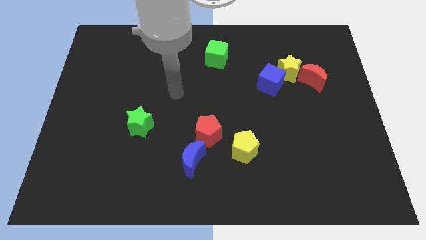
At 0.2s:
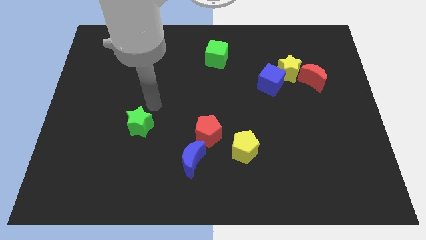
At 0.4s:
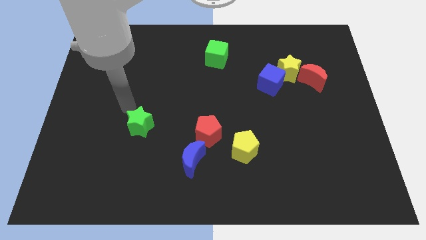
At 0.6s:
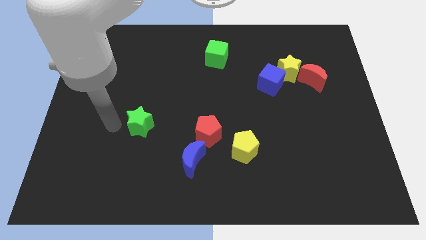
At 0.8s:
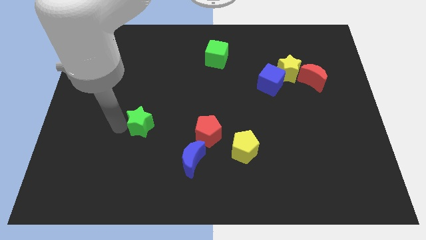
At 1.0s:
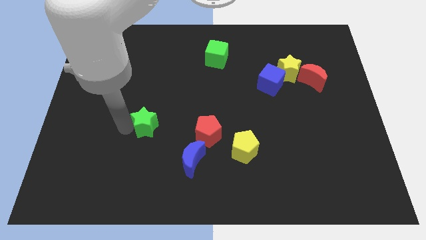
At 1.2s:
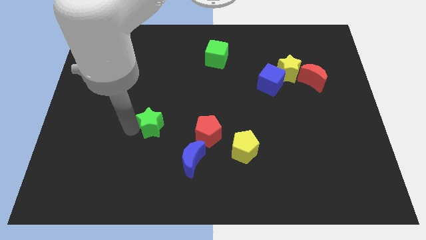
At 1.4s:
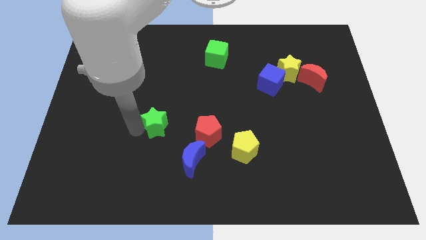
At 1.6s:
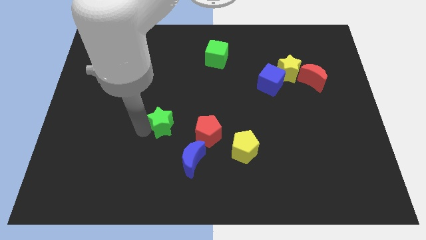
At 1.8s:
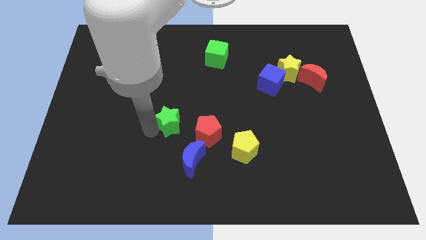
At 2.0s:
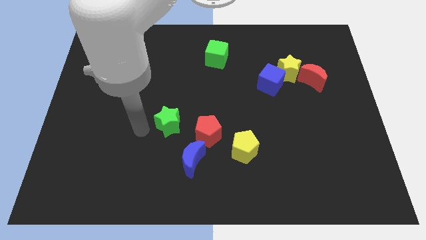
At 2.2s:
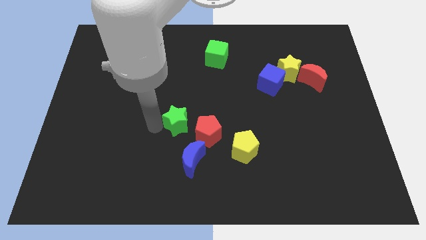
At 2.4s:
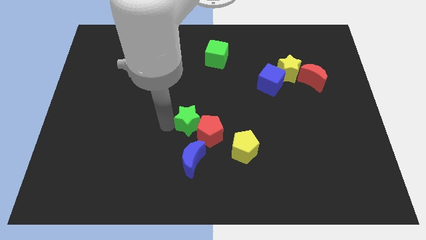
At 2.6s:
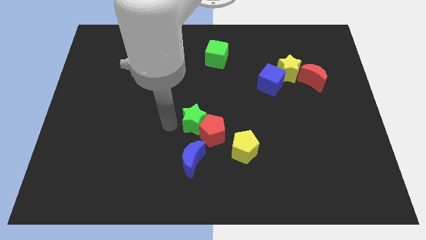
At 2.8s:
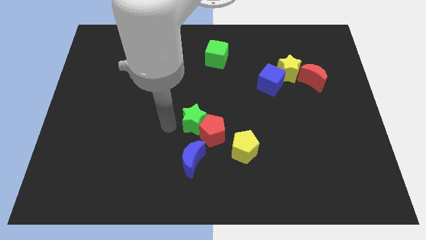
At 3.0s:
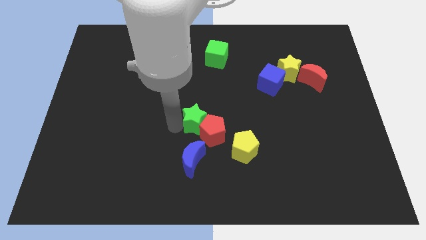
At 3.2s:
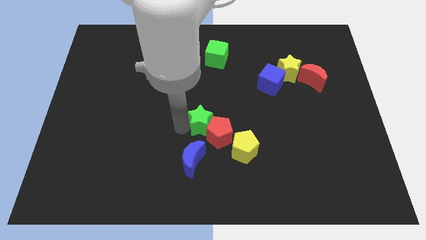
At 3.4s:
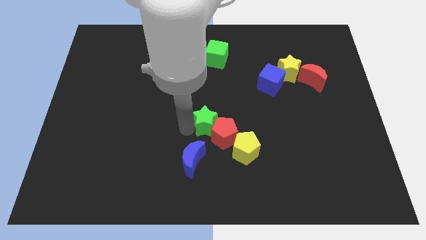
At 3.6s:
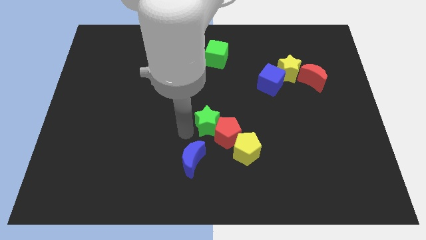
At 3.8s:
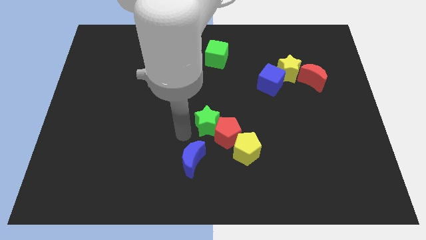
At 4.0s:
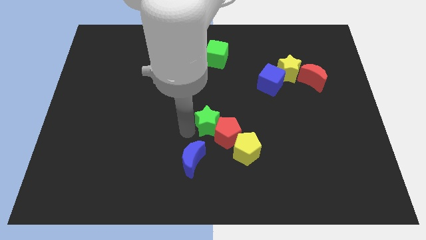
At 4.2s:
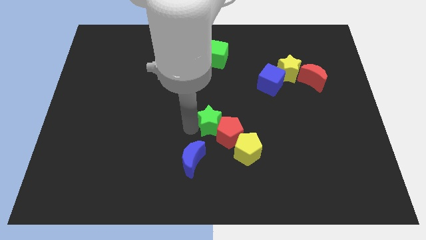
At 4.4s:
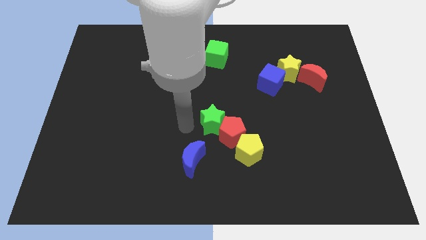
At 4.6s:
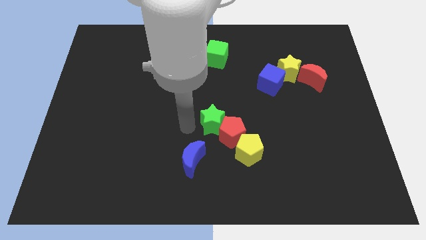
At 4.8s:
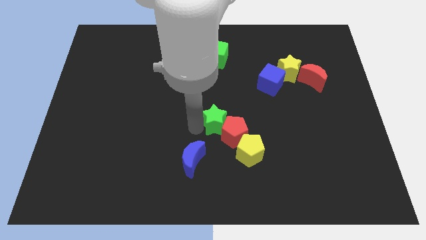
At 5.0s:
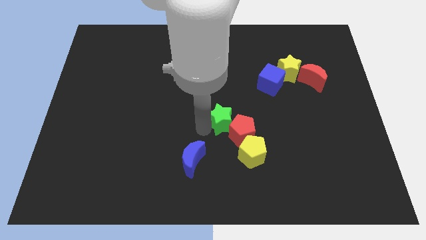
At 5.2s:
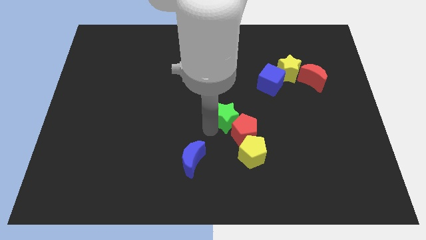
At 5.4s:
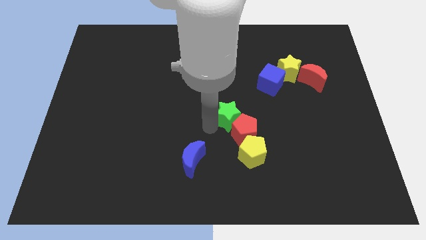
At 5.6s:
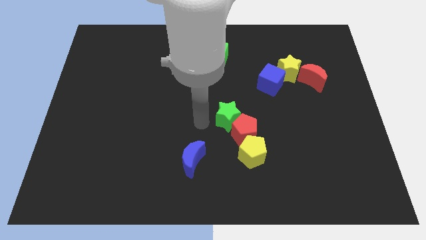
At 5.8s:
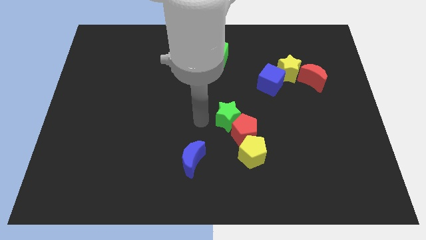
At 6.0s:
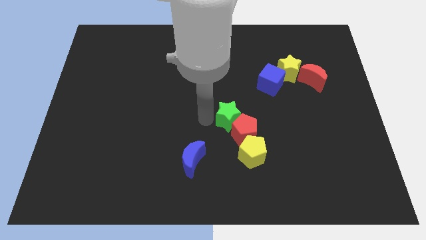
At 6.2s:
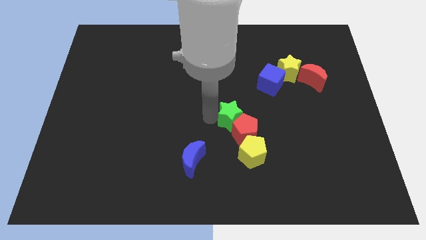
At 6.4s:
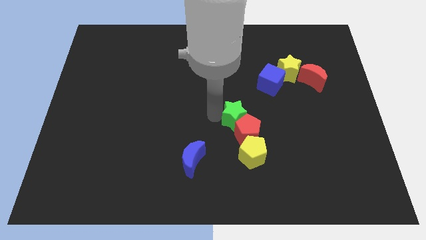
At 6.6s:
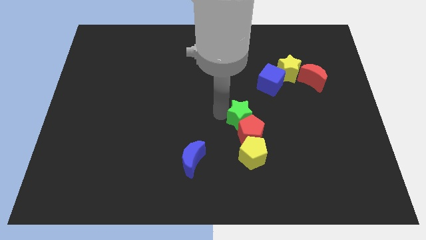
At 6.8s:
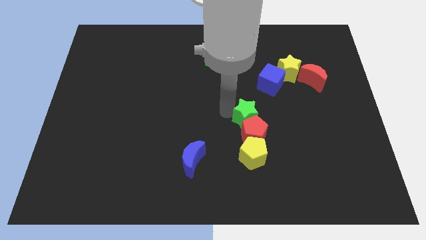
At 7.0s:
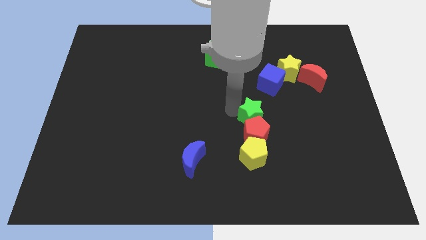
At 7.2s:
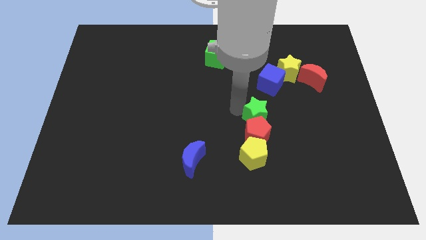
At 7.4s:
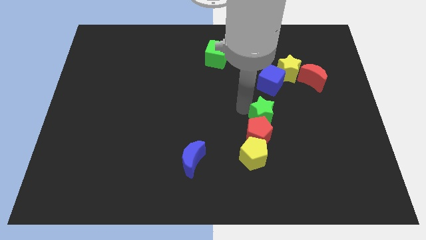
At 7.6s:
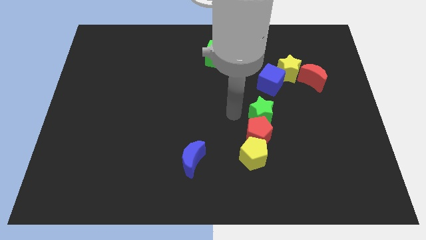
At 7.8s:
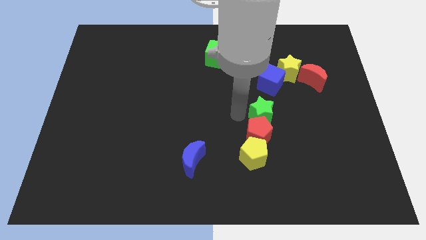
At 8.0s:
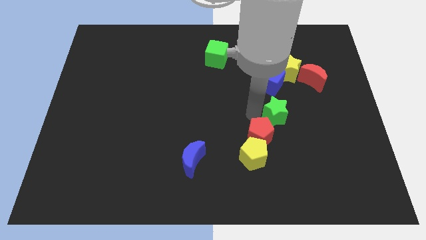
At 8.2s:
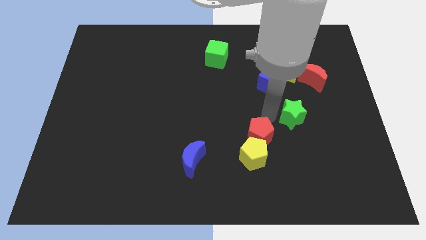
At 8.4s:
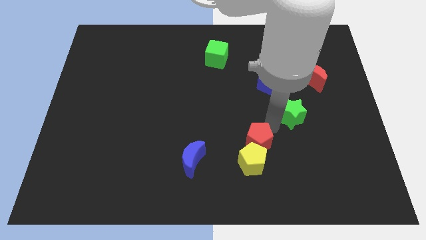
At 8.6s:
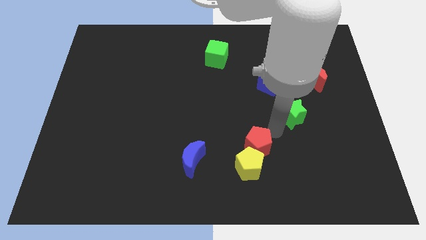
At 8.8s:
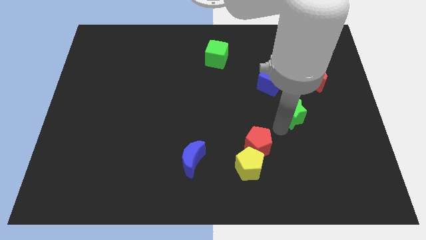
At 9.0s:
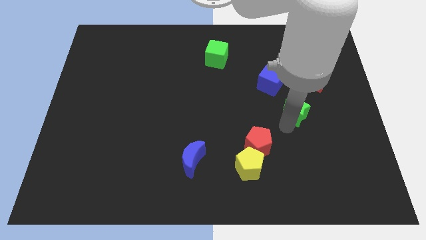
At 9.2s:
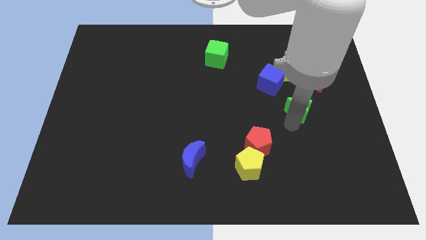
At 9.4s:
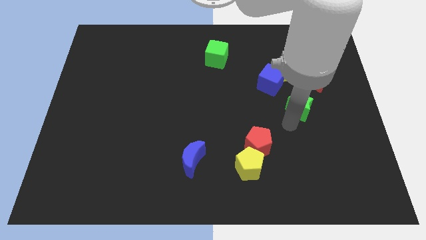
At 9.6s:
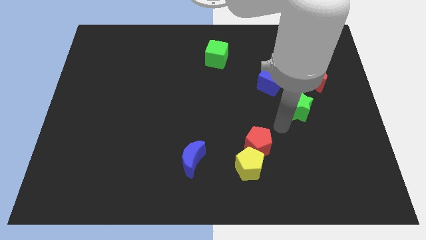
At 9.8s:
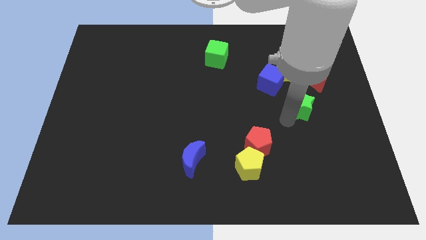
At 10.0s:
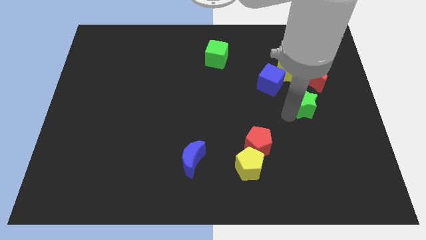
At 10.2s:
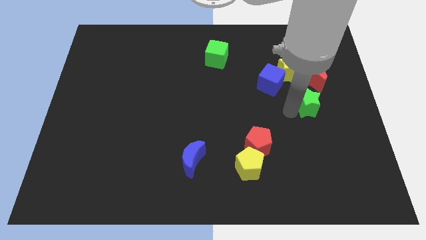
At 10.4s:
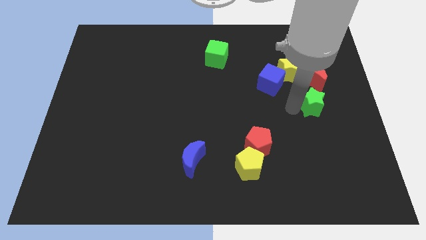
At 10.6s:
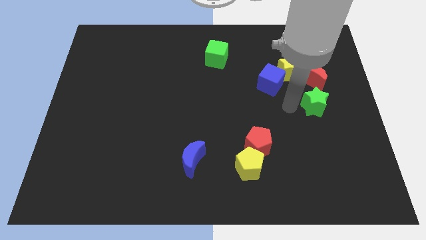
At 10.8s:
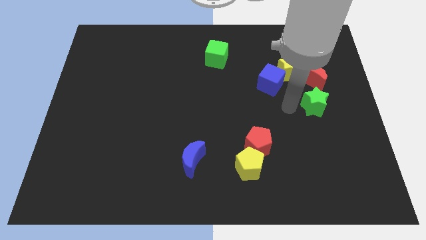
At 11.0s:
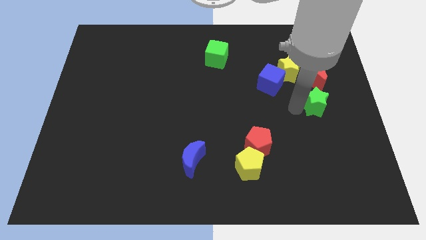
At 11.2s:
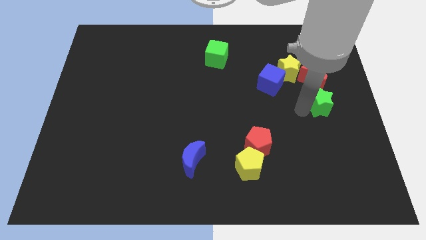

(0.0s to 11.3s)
slide the green star to the right side of the board

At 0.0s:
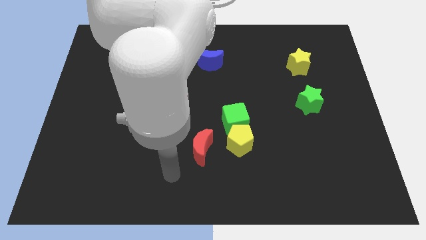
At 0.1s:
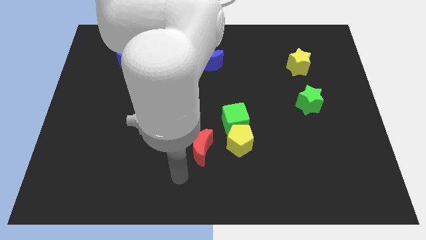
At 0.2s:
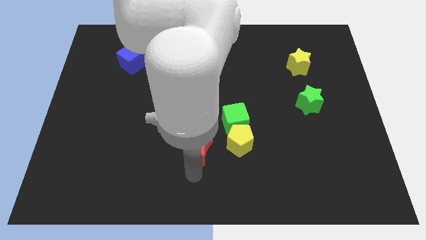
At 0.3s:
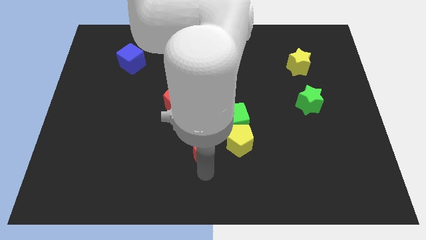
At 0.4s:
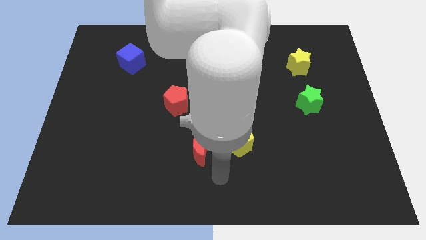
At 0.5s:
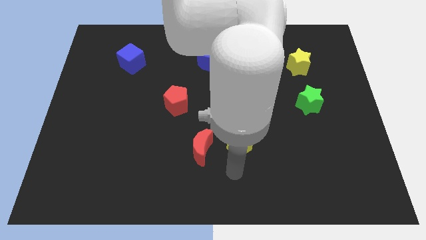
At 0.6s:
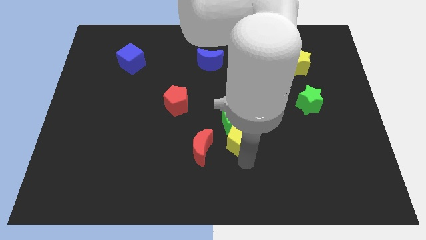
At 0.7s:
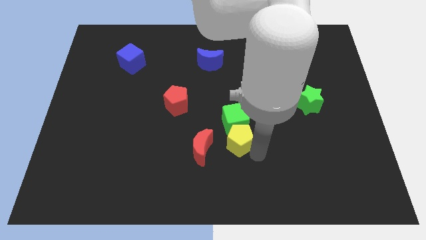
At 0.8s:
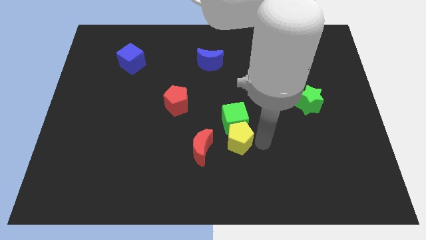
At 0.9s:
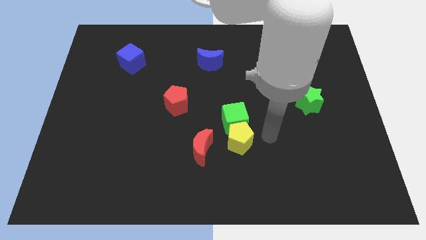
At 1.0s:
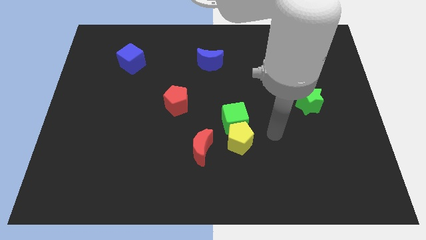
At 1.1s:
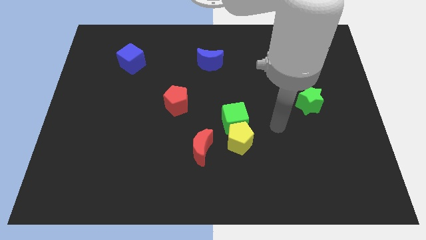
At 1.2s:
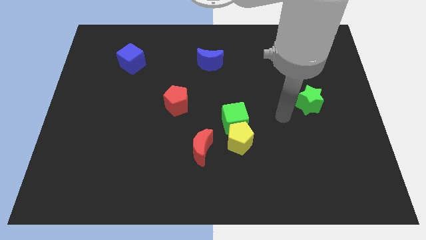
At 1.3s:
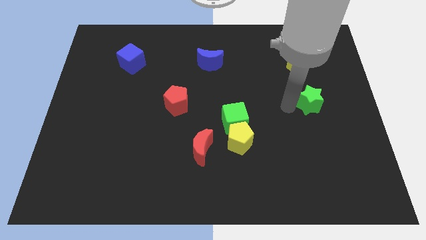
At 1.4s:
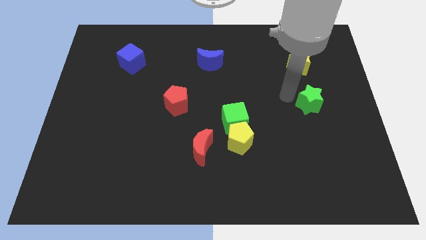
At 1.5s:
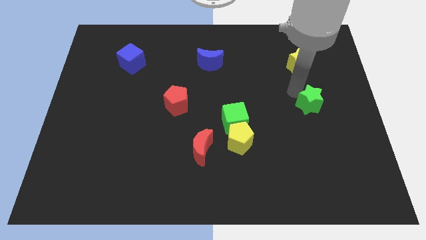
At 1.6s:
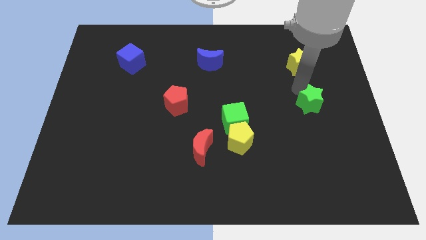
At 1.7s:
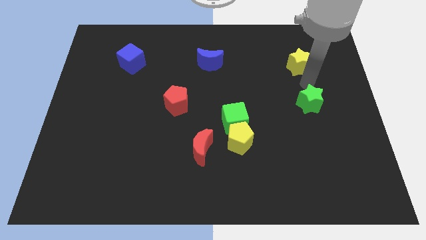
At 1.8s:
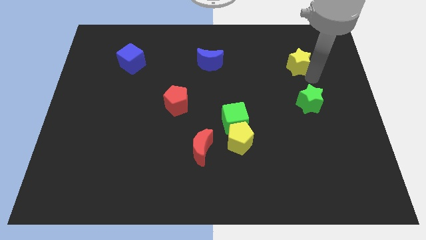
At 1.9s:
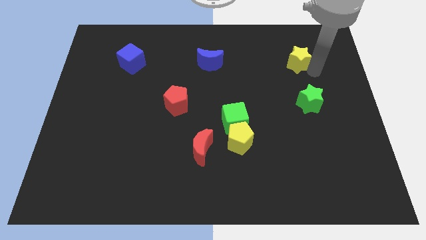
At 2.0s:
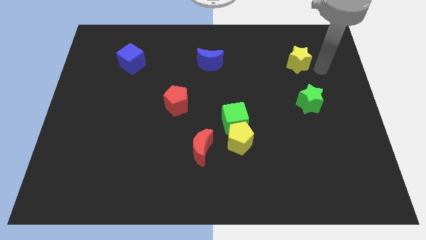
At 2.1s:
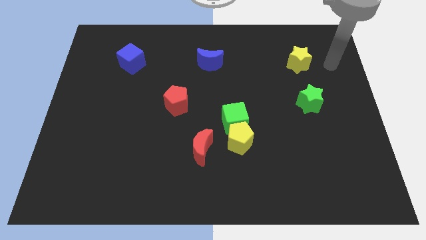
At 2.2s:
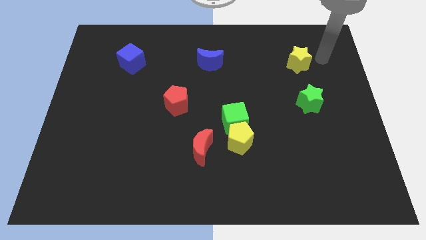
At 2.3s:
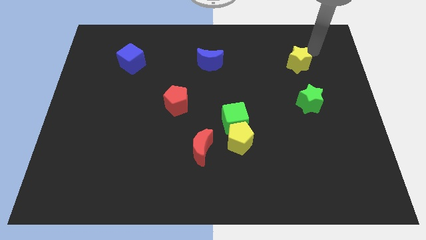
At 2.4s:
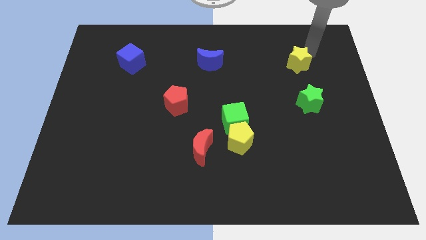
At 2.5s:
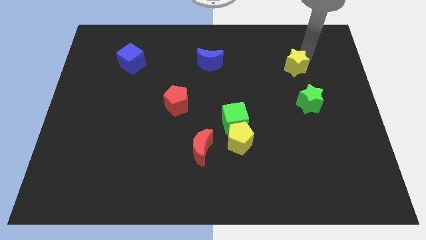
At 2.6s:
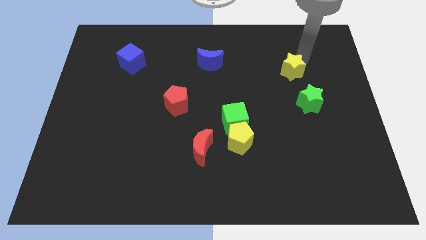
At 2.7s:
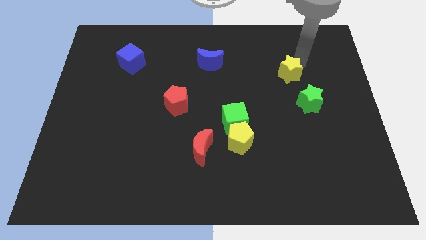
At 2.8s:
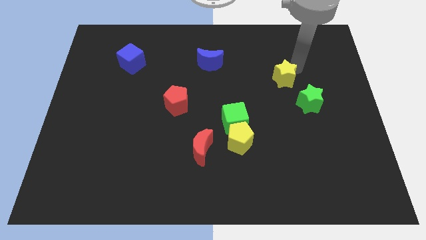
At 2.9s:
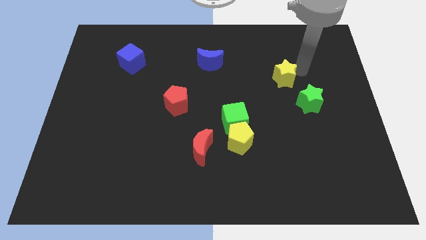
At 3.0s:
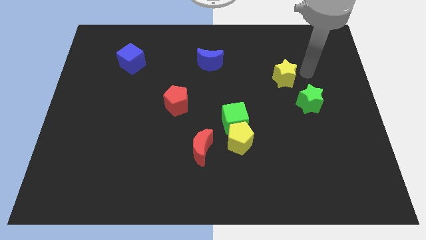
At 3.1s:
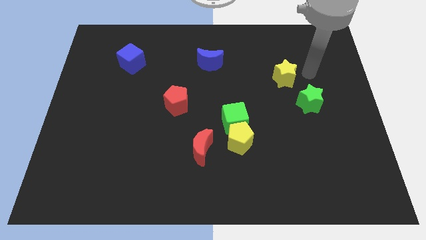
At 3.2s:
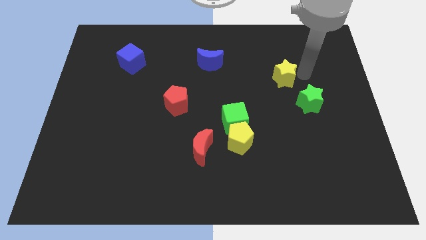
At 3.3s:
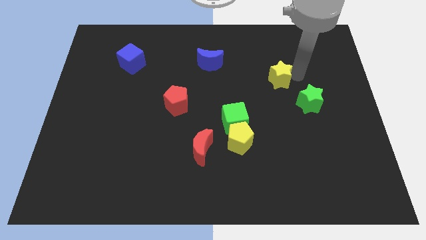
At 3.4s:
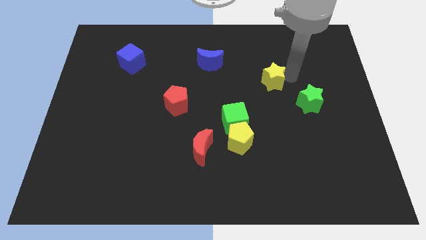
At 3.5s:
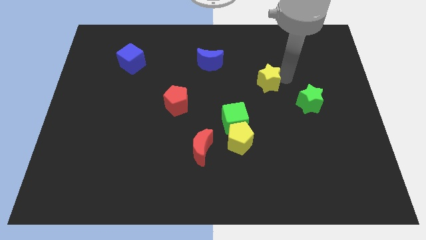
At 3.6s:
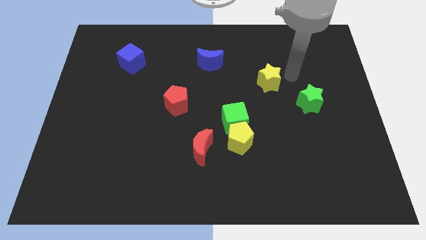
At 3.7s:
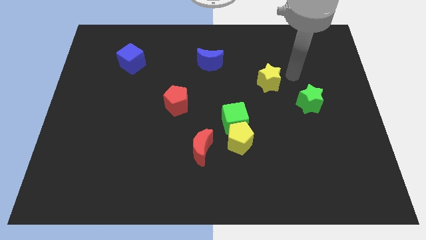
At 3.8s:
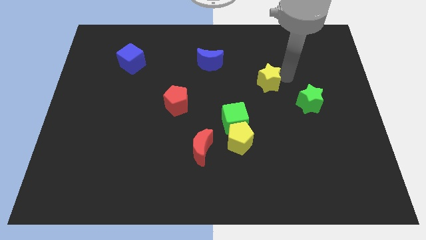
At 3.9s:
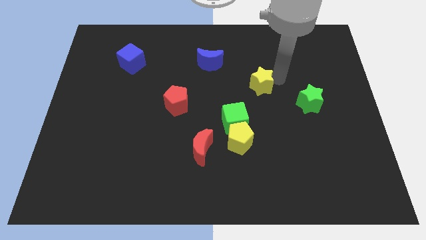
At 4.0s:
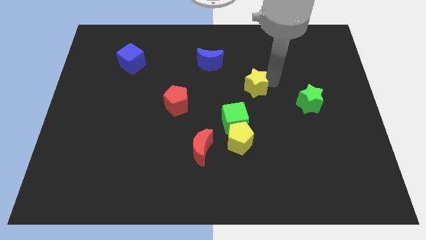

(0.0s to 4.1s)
slide the yellow star to the middle of the board
